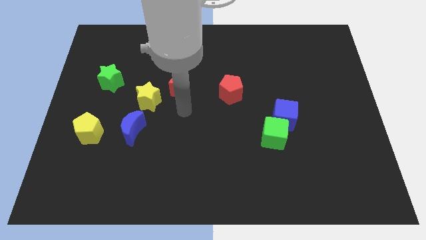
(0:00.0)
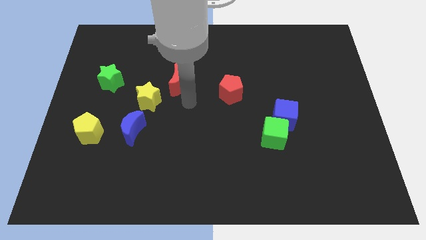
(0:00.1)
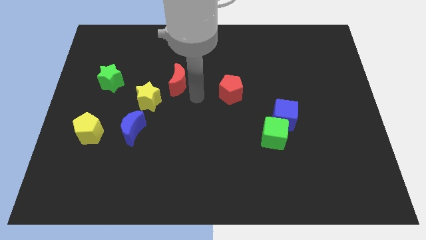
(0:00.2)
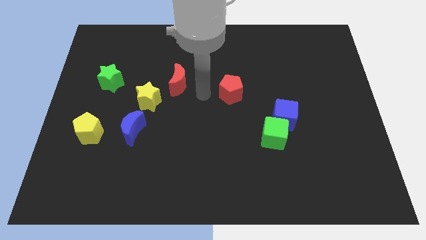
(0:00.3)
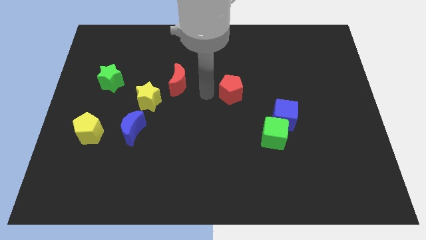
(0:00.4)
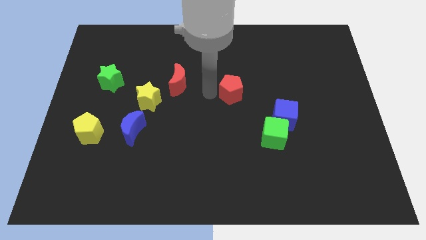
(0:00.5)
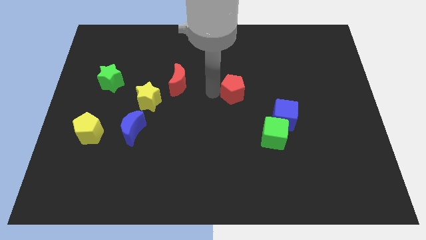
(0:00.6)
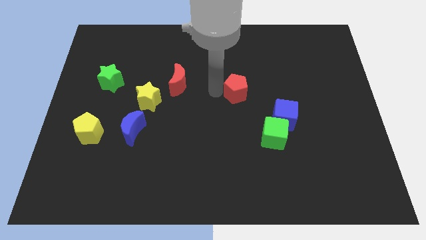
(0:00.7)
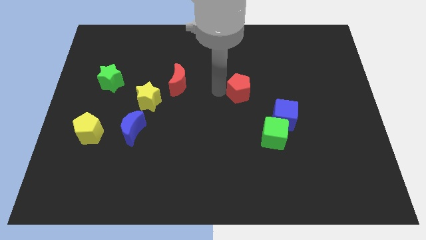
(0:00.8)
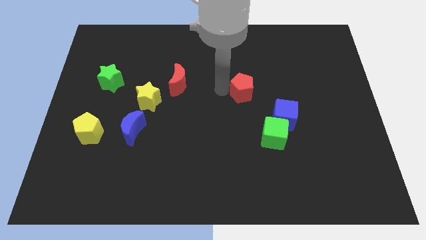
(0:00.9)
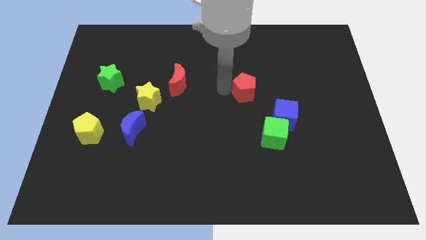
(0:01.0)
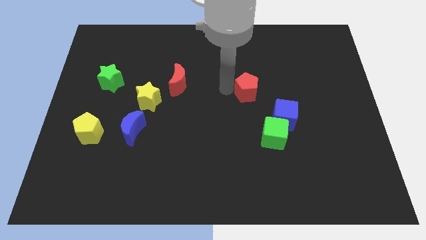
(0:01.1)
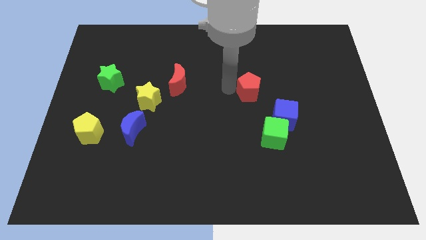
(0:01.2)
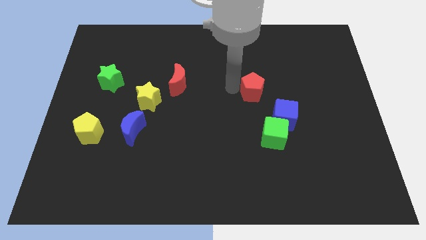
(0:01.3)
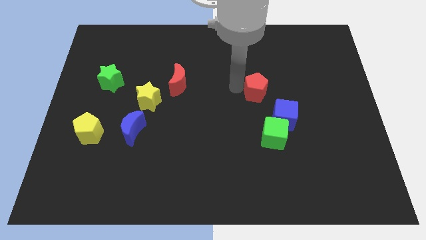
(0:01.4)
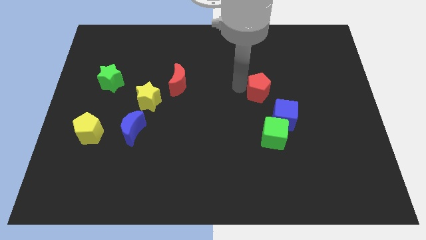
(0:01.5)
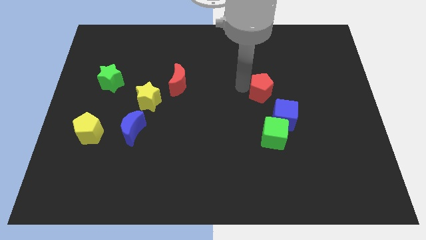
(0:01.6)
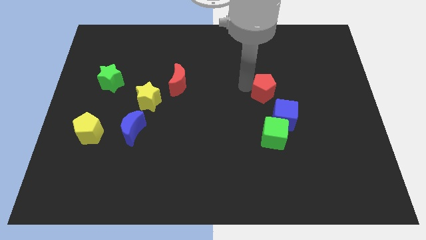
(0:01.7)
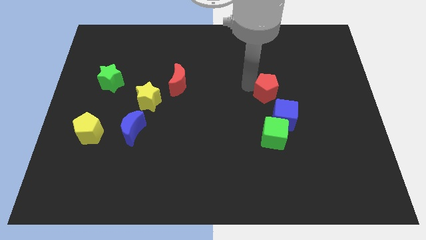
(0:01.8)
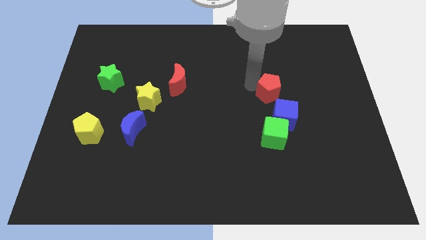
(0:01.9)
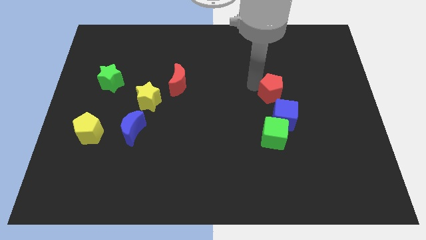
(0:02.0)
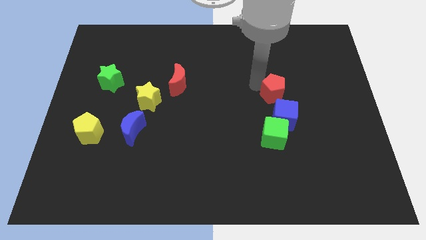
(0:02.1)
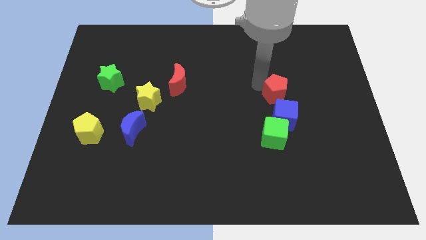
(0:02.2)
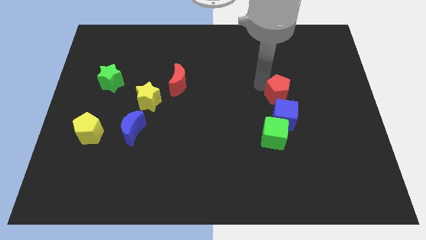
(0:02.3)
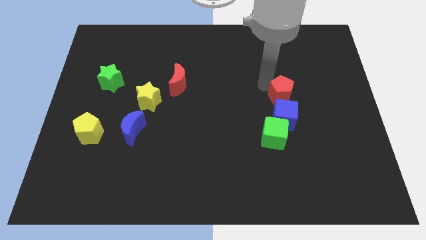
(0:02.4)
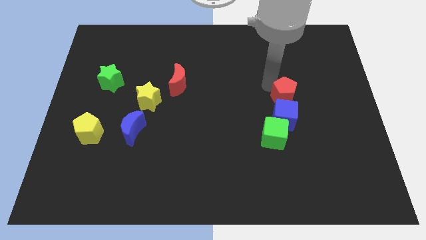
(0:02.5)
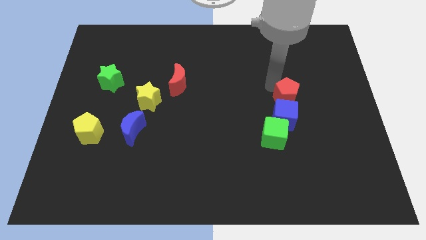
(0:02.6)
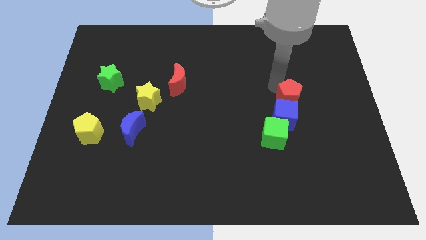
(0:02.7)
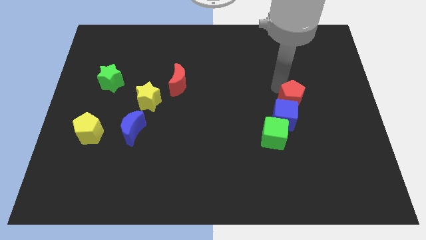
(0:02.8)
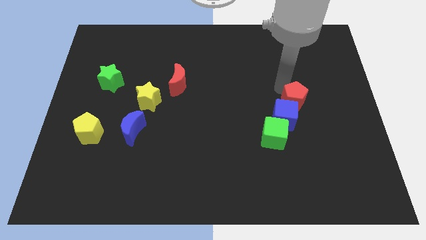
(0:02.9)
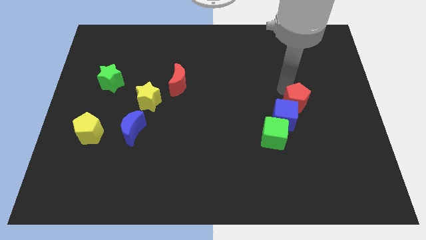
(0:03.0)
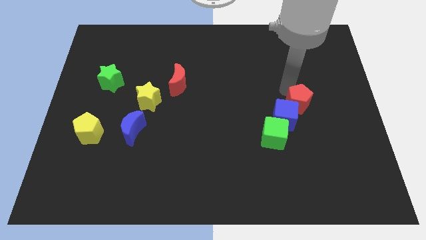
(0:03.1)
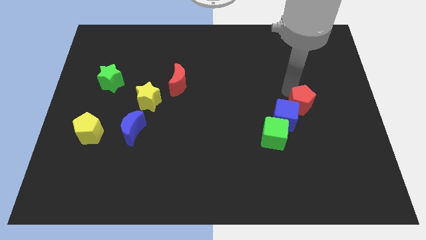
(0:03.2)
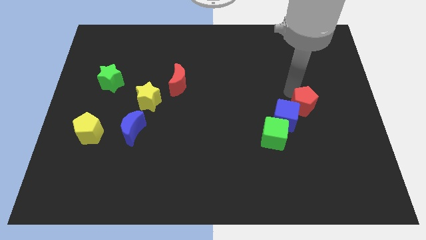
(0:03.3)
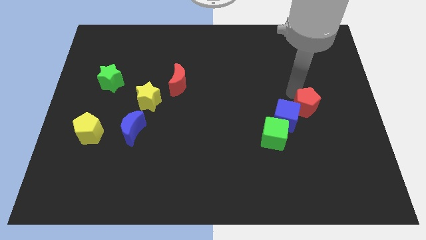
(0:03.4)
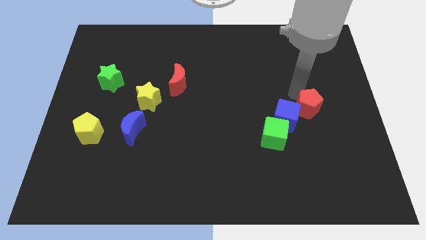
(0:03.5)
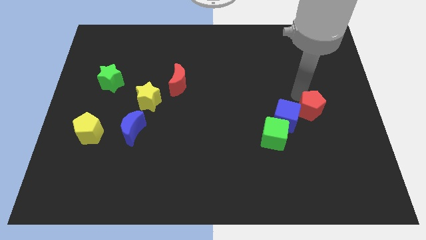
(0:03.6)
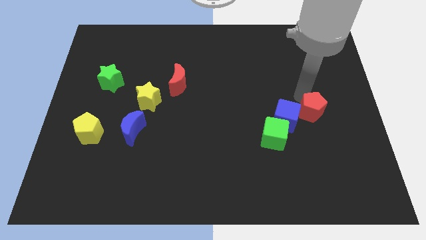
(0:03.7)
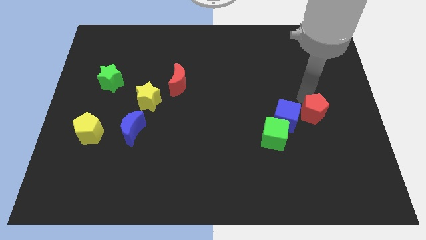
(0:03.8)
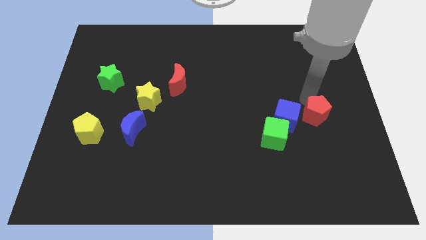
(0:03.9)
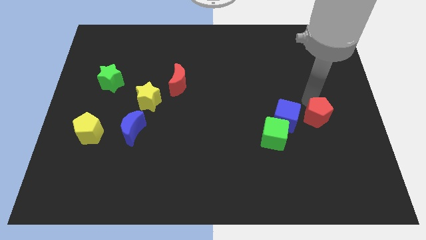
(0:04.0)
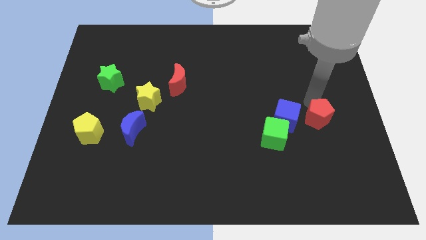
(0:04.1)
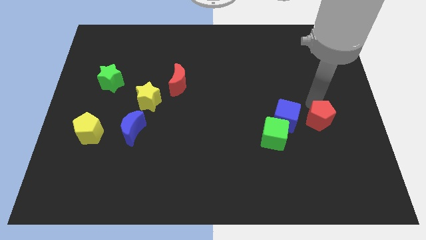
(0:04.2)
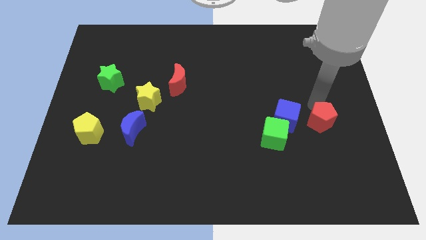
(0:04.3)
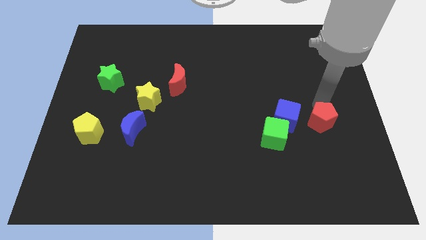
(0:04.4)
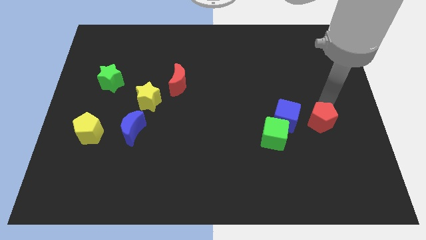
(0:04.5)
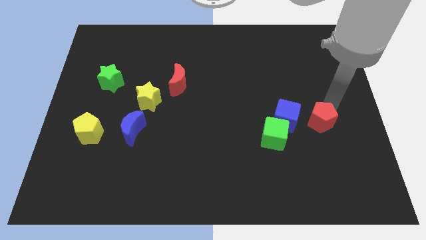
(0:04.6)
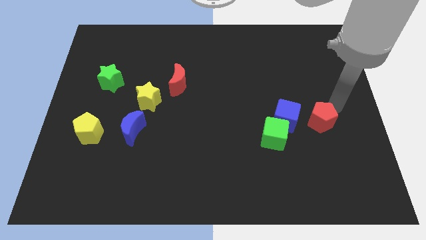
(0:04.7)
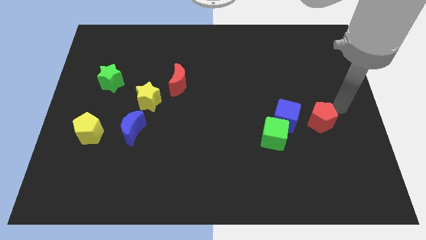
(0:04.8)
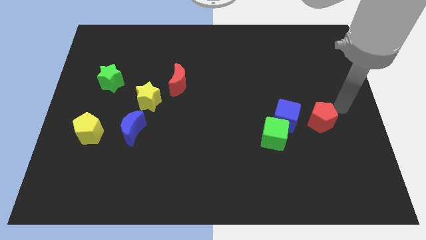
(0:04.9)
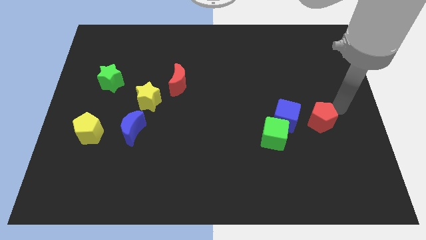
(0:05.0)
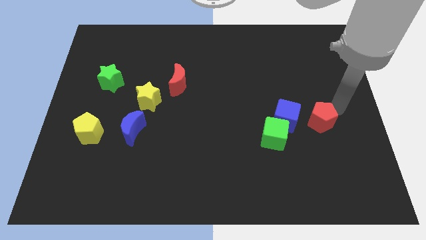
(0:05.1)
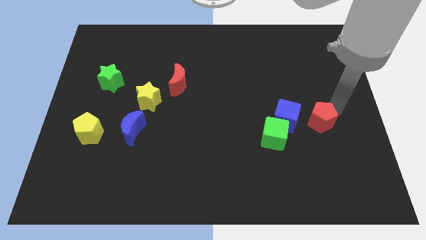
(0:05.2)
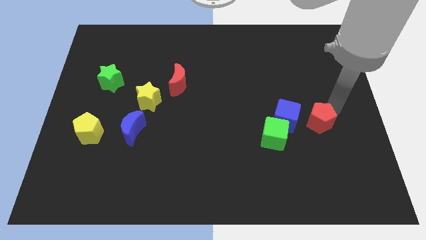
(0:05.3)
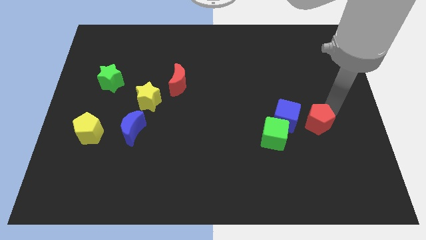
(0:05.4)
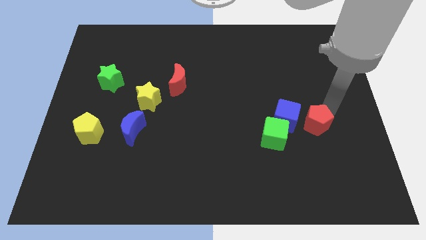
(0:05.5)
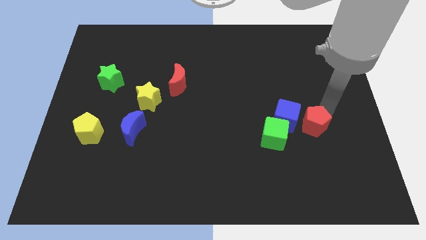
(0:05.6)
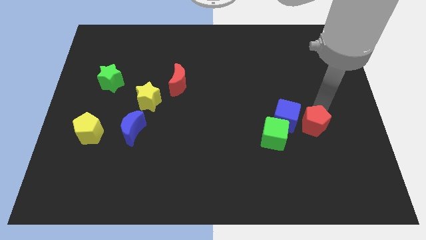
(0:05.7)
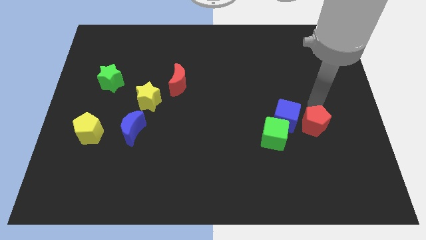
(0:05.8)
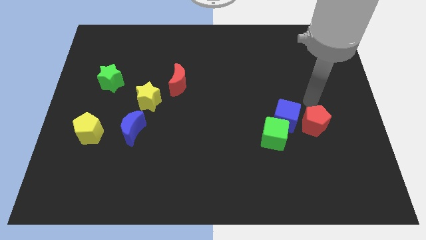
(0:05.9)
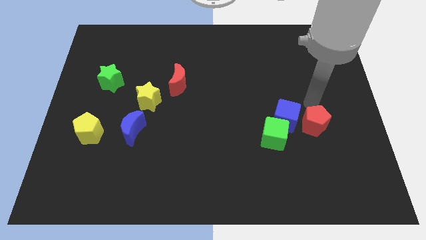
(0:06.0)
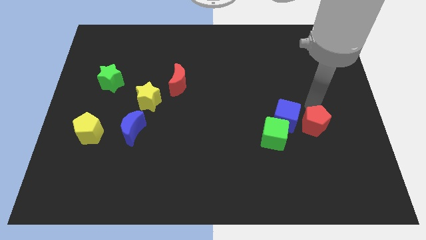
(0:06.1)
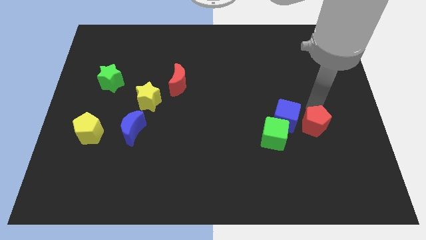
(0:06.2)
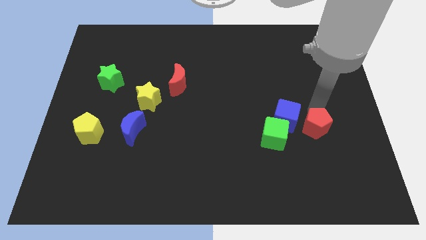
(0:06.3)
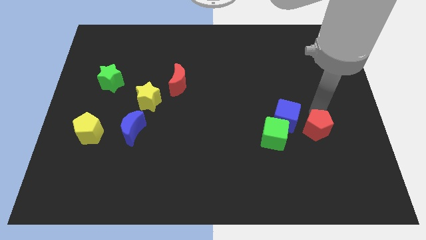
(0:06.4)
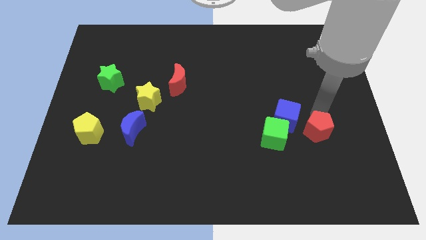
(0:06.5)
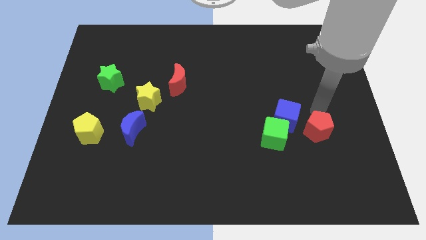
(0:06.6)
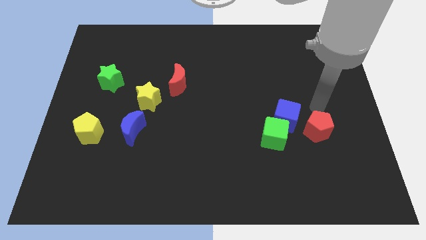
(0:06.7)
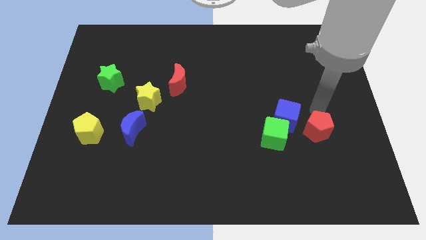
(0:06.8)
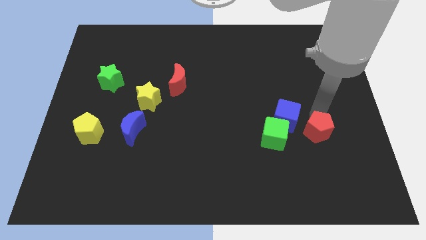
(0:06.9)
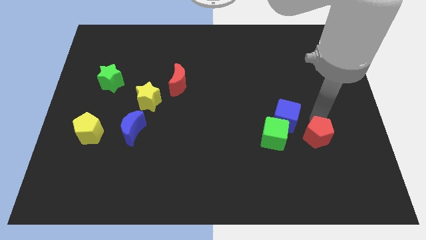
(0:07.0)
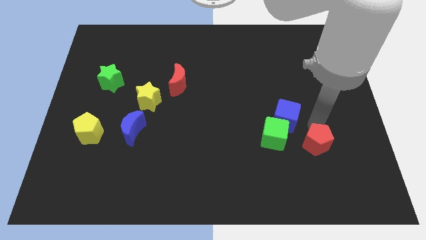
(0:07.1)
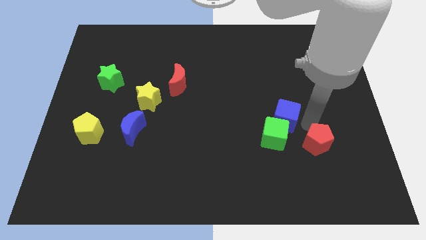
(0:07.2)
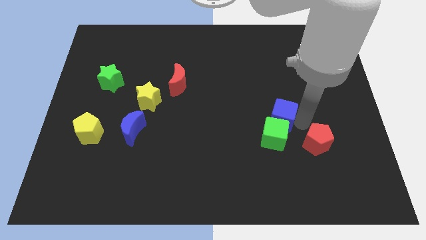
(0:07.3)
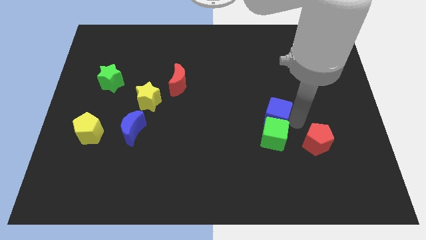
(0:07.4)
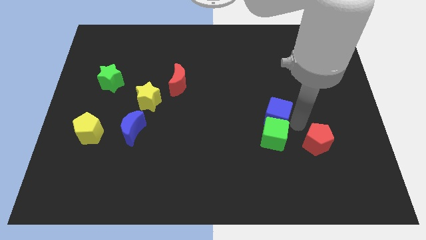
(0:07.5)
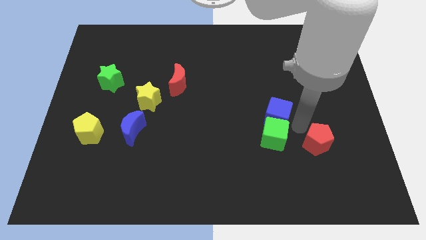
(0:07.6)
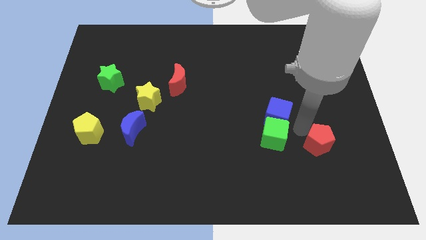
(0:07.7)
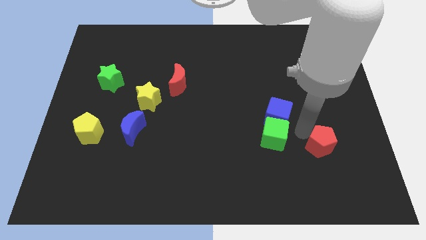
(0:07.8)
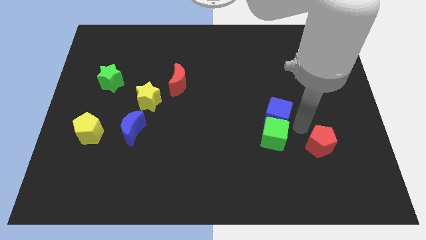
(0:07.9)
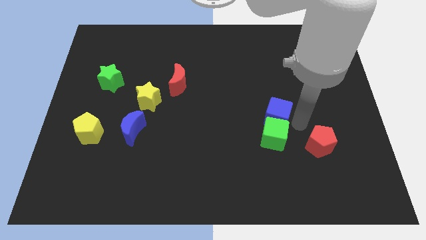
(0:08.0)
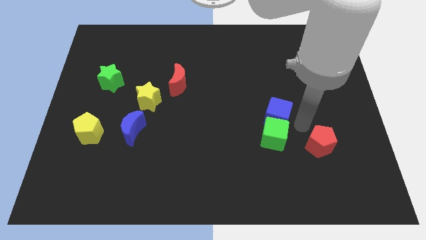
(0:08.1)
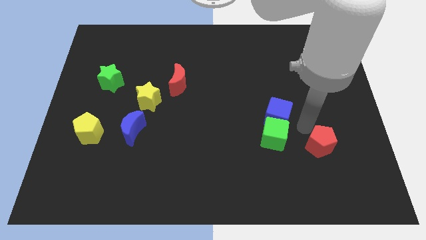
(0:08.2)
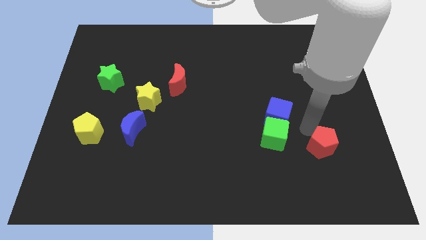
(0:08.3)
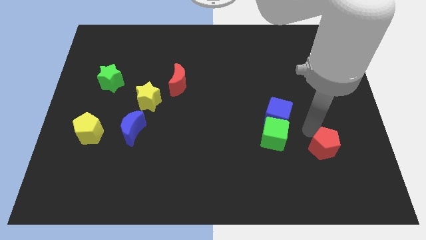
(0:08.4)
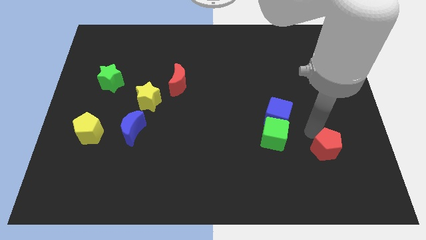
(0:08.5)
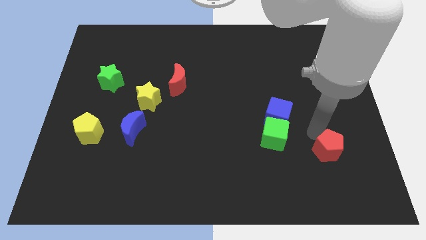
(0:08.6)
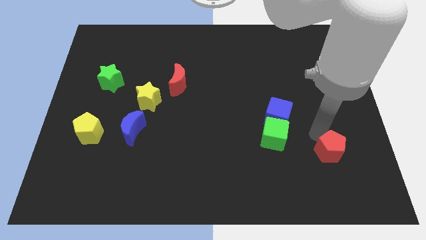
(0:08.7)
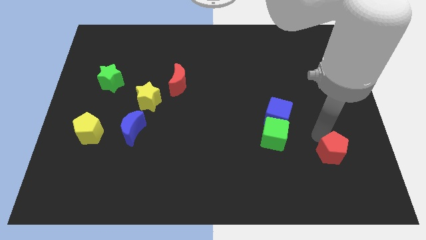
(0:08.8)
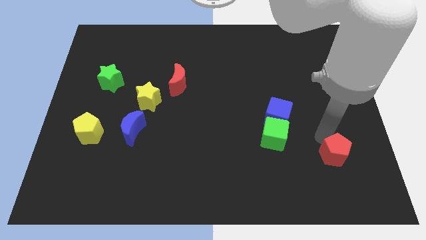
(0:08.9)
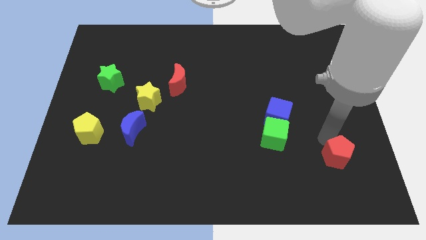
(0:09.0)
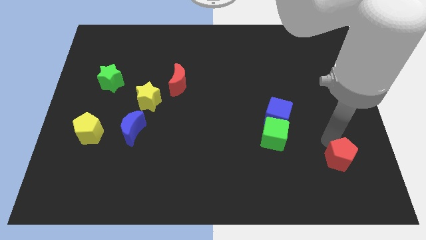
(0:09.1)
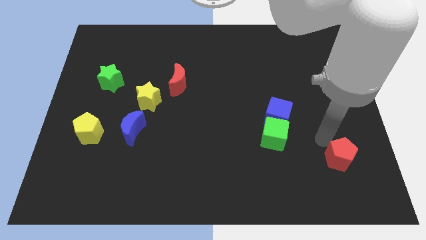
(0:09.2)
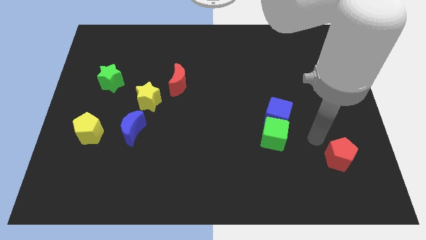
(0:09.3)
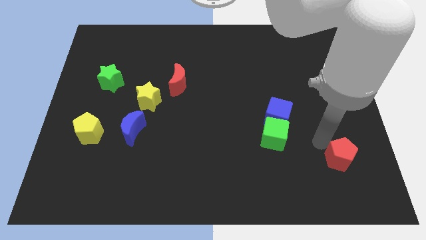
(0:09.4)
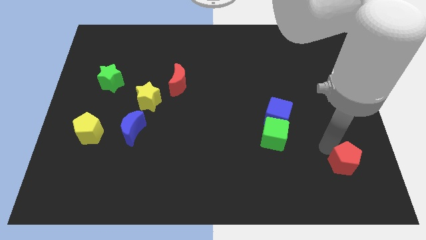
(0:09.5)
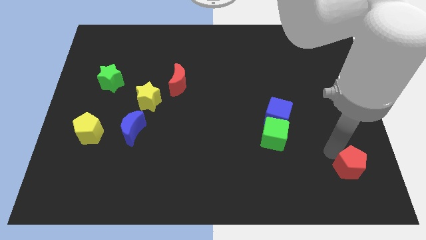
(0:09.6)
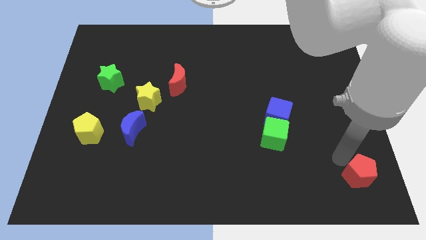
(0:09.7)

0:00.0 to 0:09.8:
put the red pentagon to the bottom right corner
